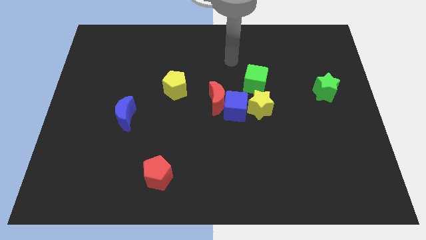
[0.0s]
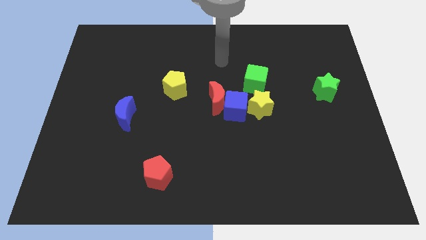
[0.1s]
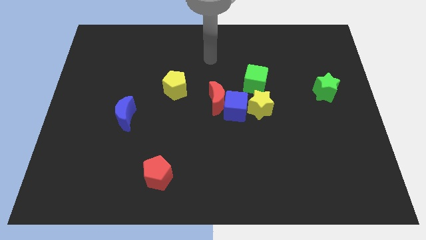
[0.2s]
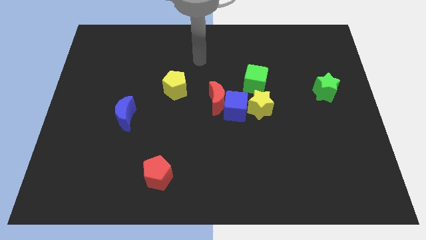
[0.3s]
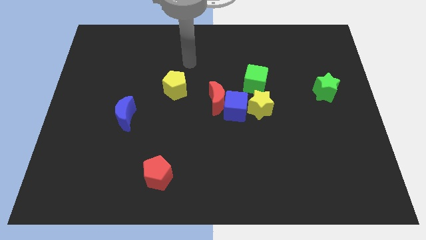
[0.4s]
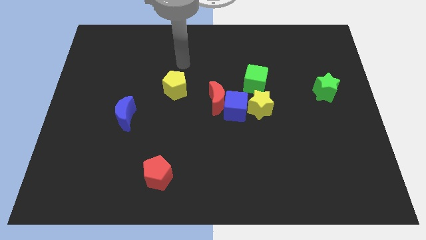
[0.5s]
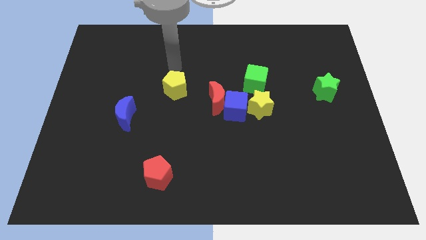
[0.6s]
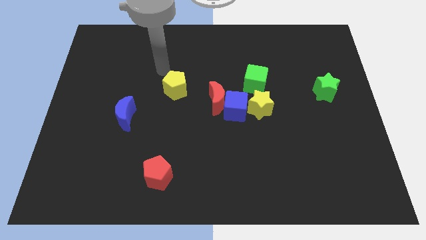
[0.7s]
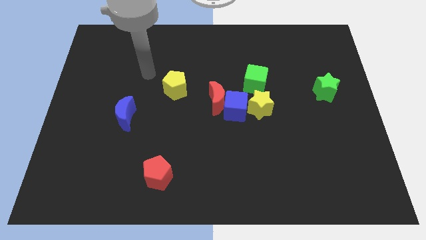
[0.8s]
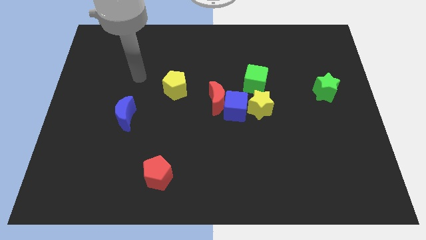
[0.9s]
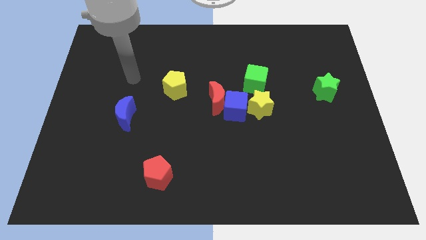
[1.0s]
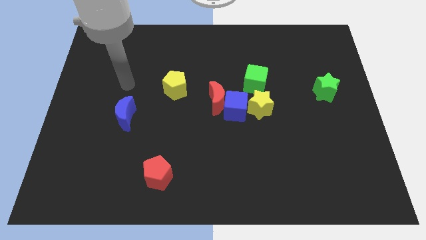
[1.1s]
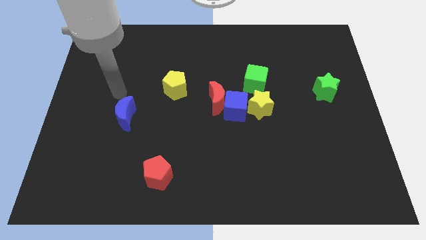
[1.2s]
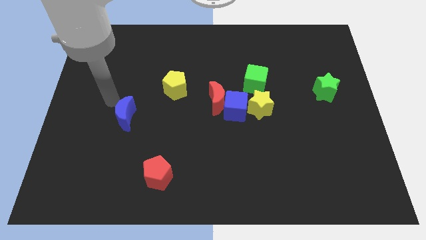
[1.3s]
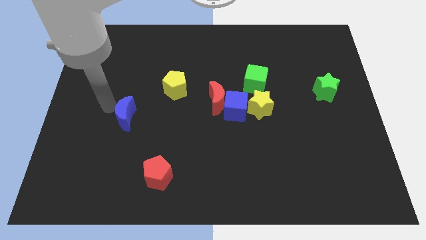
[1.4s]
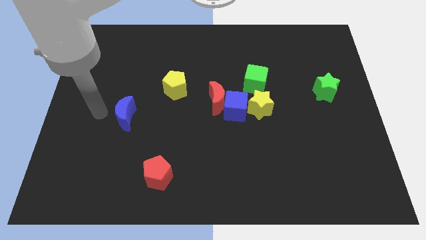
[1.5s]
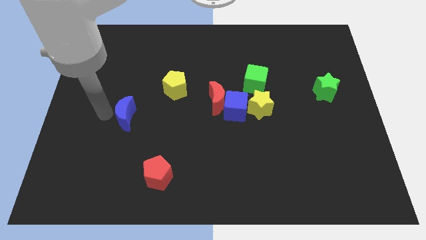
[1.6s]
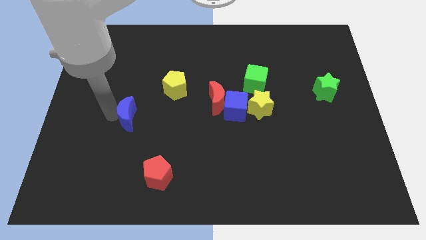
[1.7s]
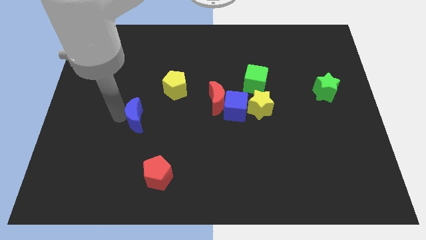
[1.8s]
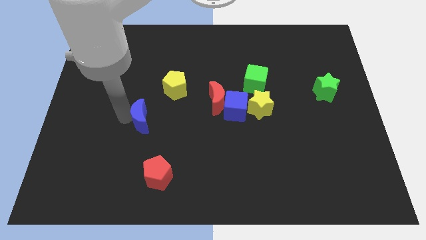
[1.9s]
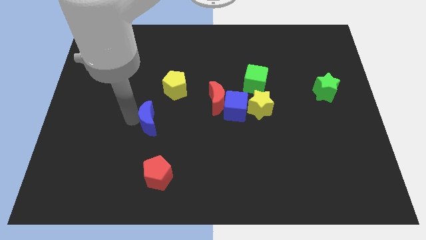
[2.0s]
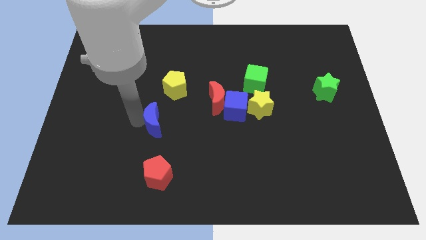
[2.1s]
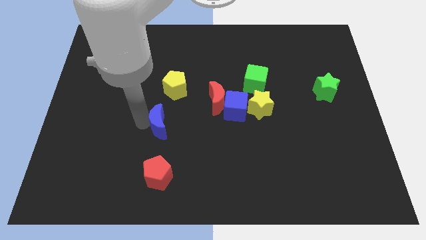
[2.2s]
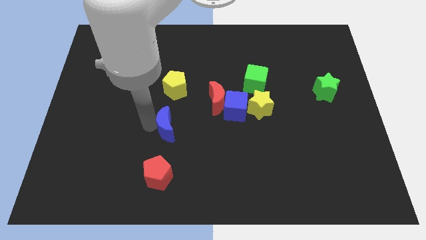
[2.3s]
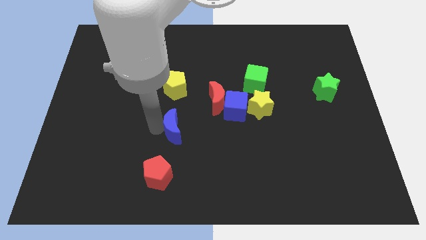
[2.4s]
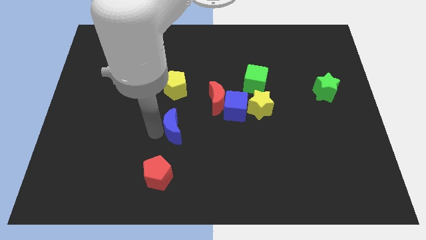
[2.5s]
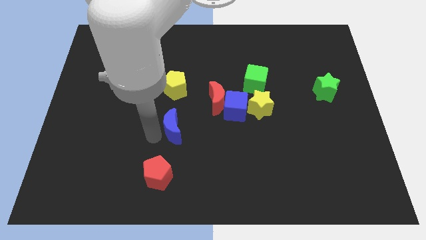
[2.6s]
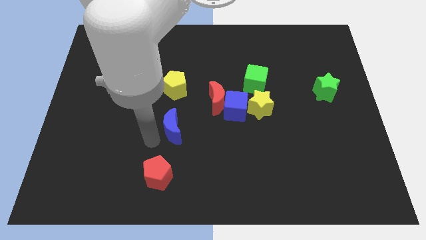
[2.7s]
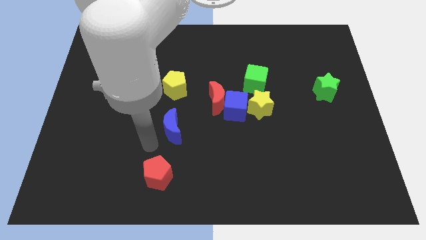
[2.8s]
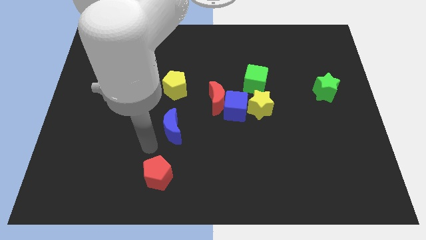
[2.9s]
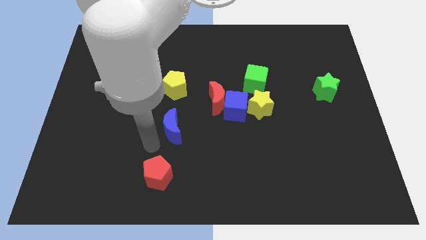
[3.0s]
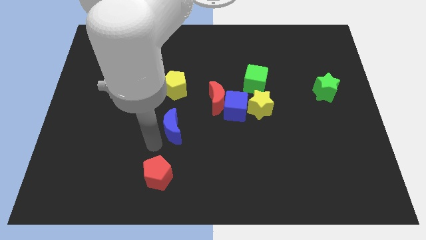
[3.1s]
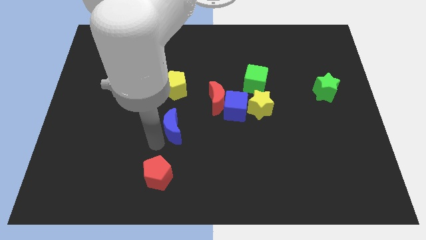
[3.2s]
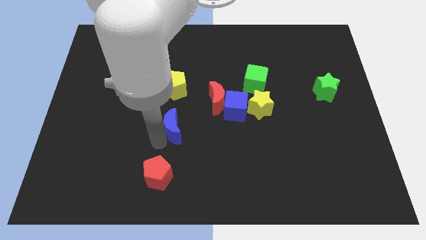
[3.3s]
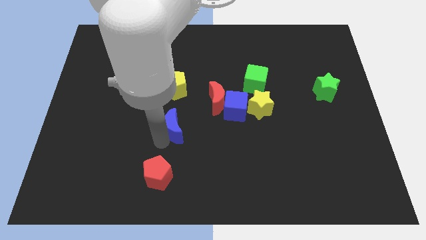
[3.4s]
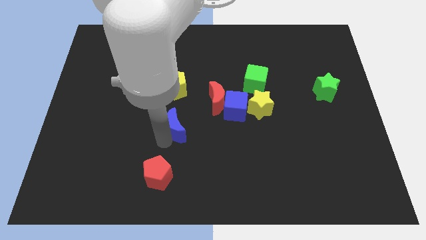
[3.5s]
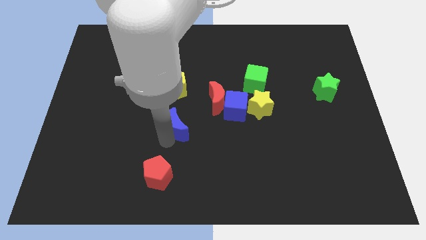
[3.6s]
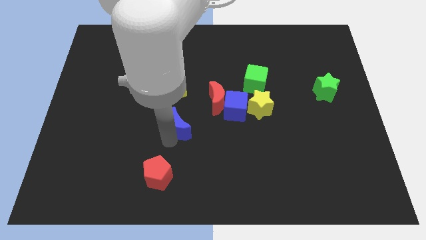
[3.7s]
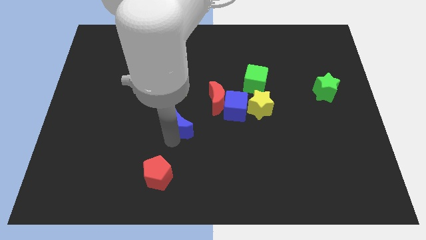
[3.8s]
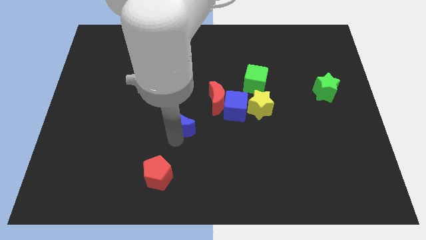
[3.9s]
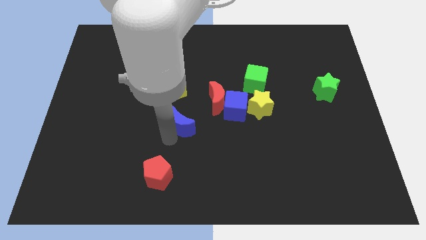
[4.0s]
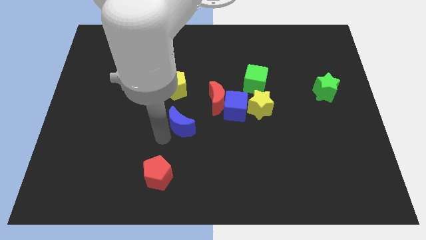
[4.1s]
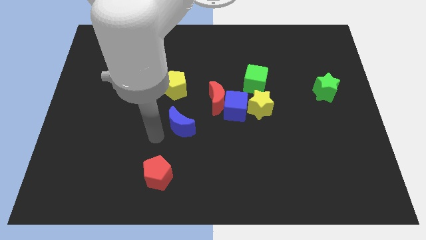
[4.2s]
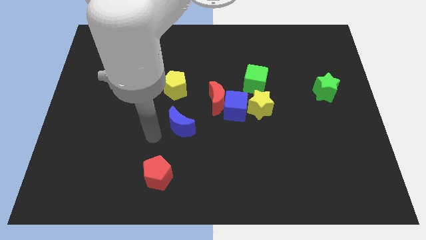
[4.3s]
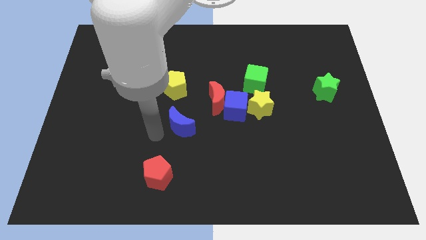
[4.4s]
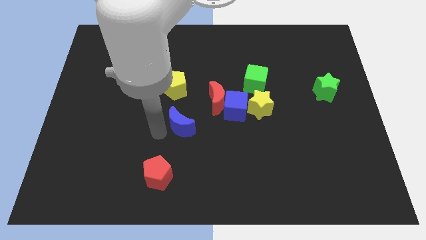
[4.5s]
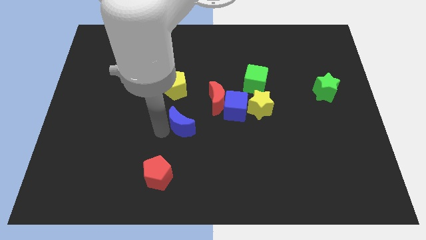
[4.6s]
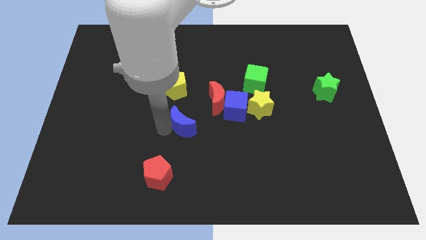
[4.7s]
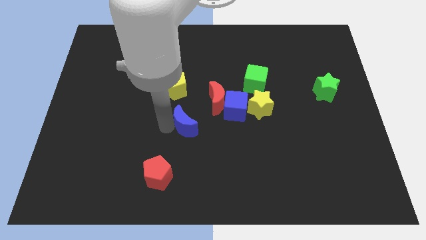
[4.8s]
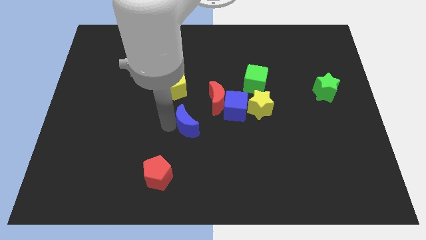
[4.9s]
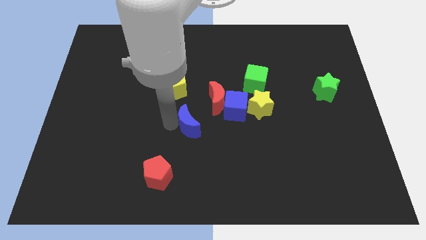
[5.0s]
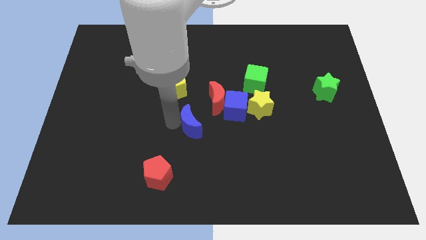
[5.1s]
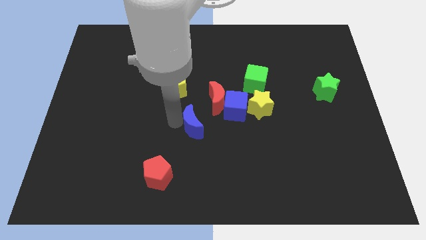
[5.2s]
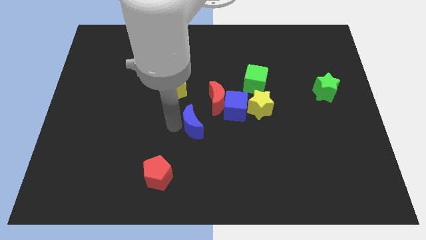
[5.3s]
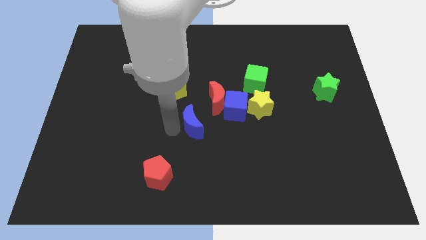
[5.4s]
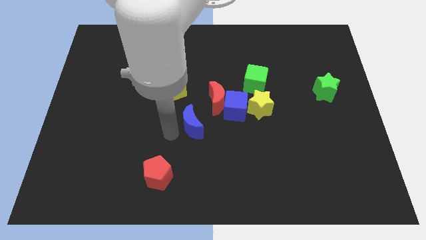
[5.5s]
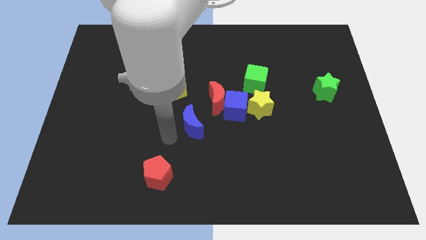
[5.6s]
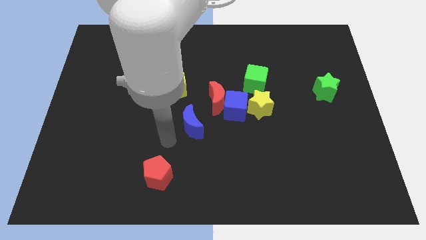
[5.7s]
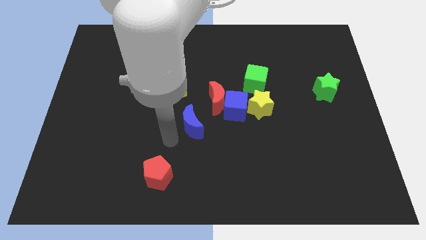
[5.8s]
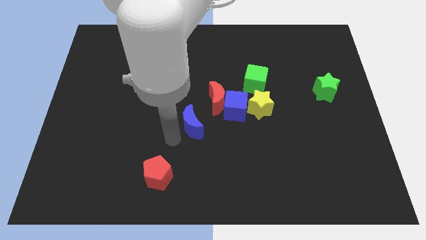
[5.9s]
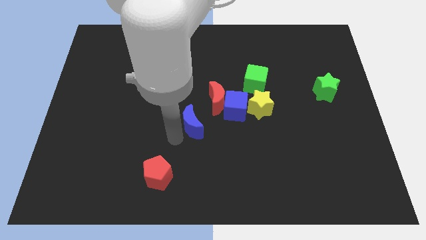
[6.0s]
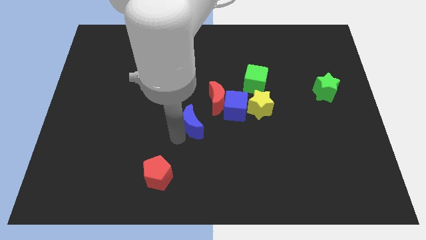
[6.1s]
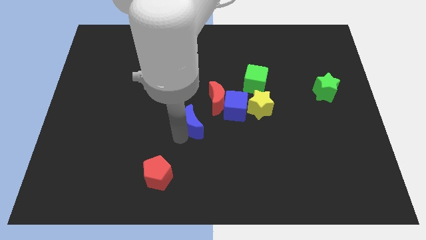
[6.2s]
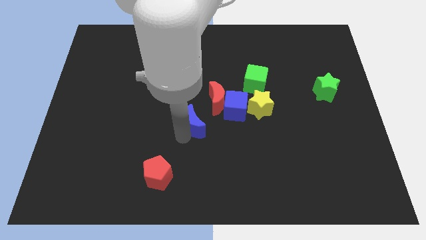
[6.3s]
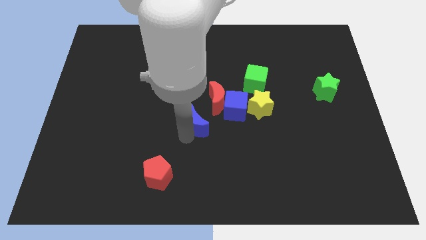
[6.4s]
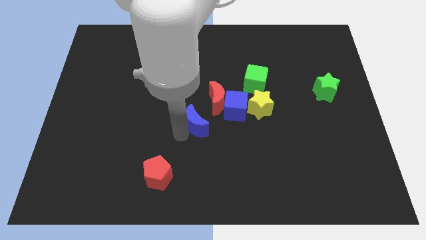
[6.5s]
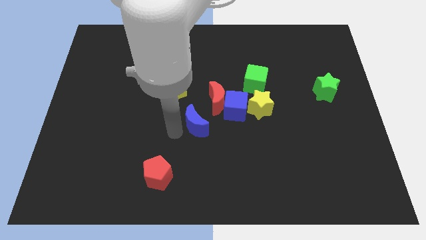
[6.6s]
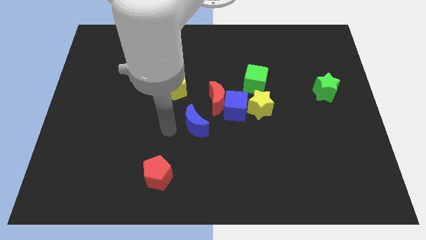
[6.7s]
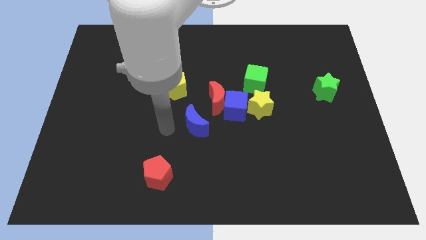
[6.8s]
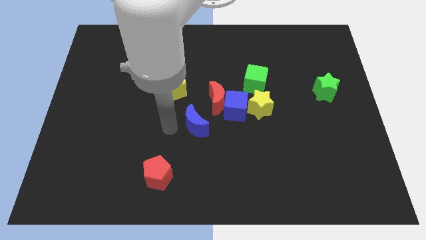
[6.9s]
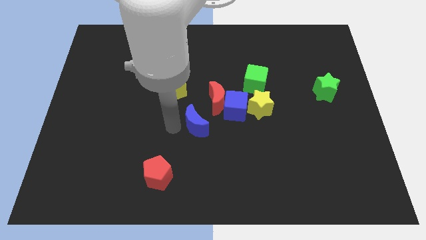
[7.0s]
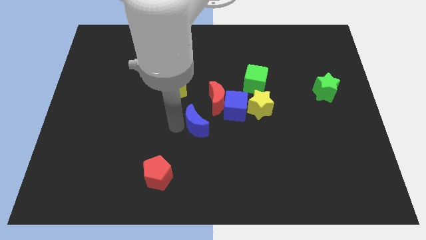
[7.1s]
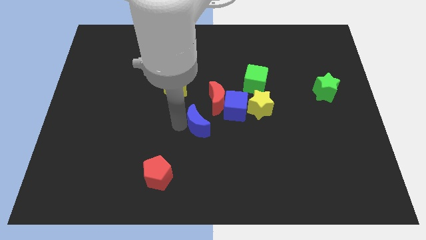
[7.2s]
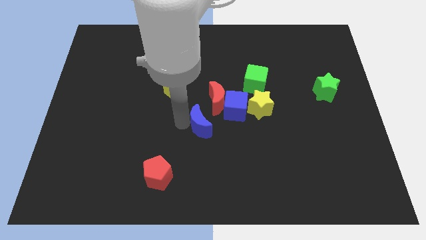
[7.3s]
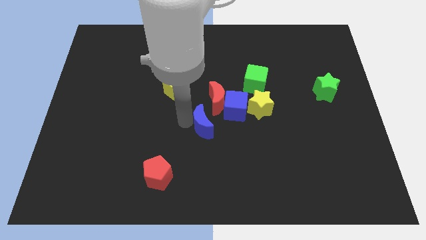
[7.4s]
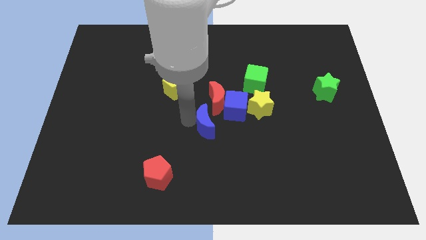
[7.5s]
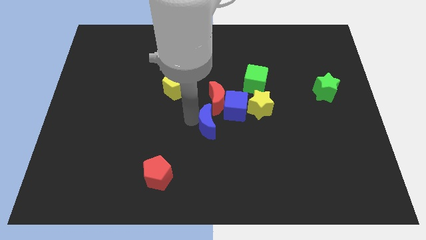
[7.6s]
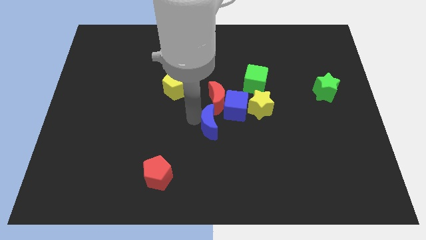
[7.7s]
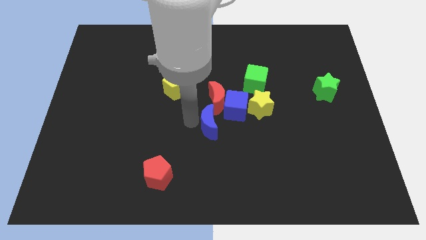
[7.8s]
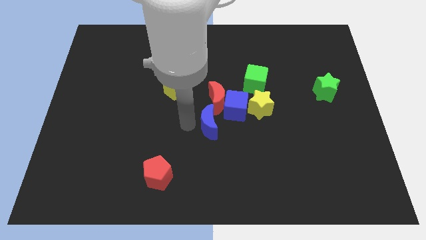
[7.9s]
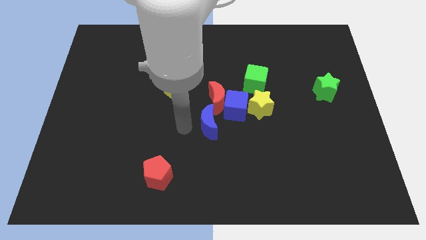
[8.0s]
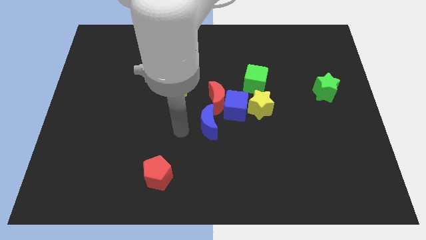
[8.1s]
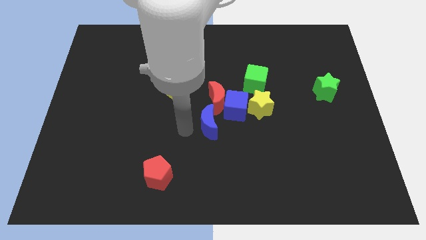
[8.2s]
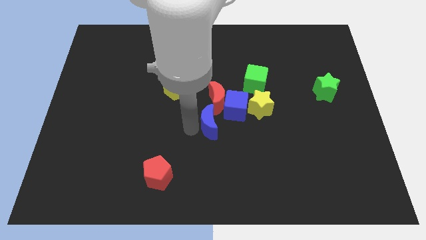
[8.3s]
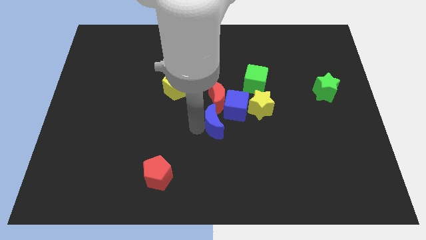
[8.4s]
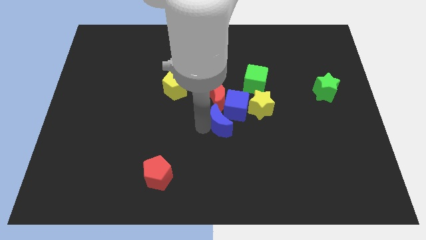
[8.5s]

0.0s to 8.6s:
slide the blue moon towards the blue cube
